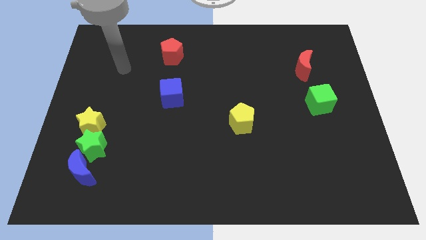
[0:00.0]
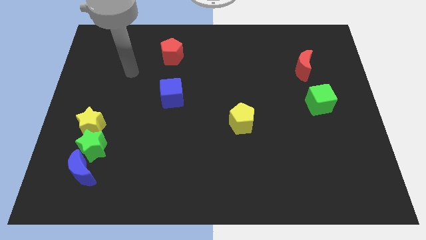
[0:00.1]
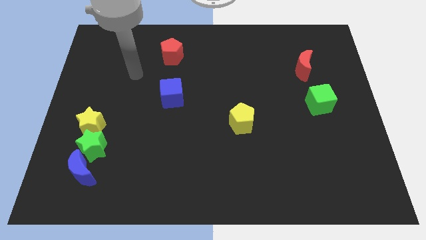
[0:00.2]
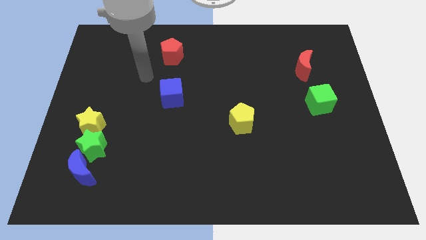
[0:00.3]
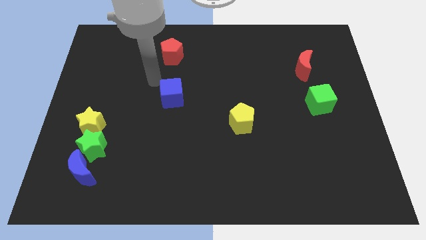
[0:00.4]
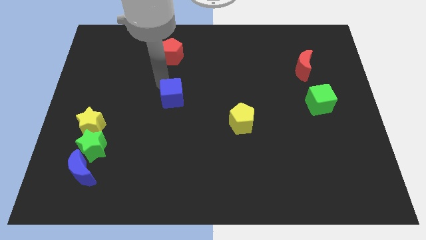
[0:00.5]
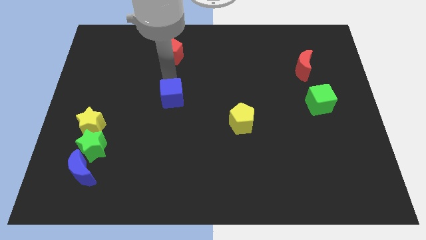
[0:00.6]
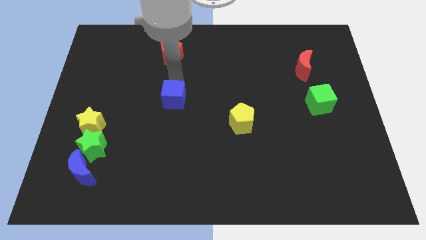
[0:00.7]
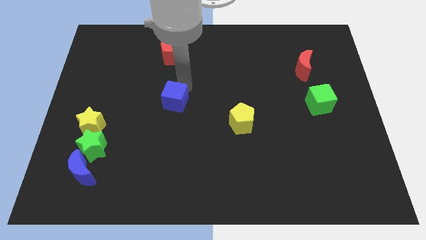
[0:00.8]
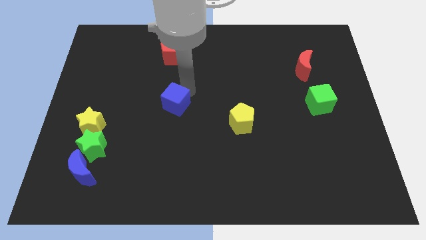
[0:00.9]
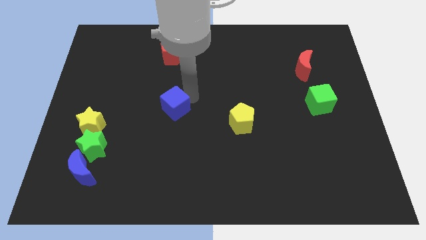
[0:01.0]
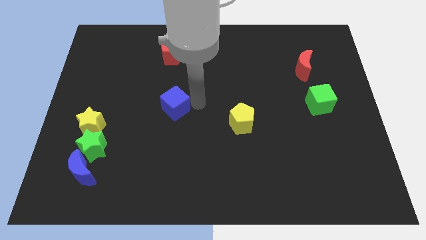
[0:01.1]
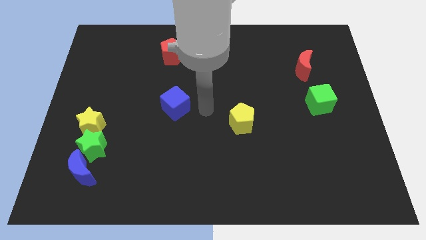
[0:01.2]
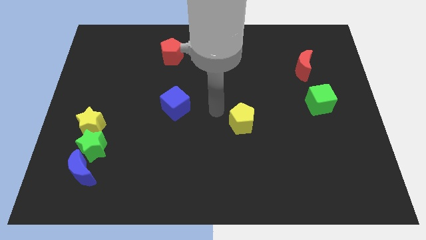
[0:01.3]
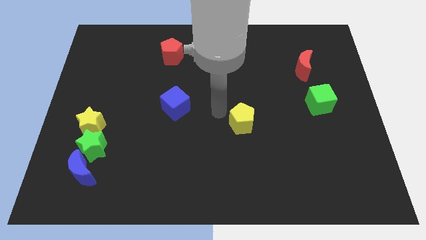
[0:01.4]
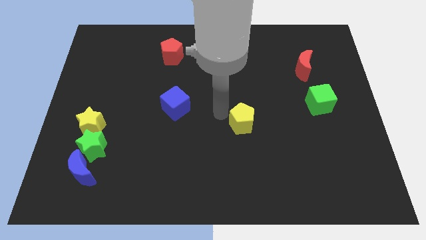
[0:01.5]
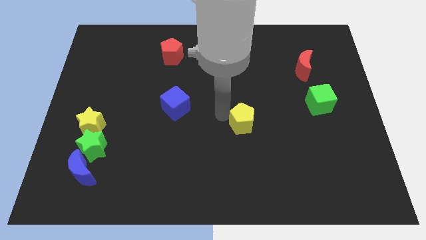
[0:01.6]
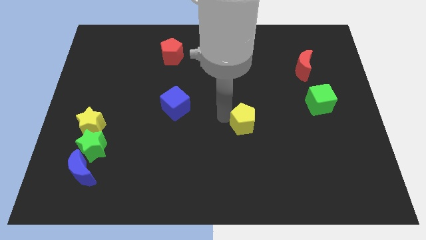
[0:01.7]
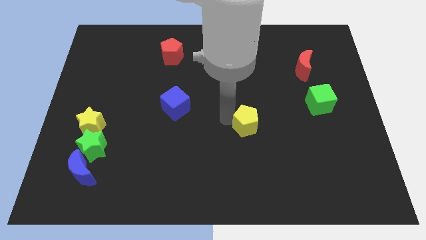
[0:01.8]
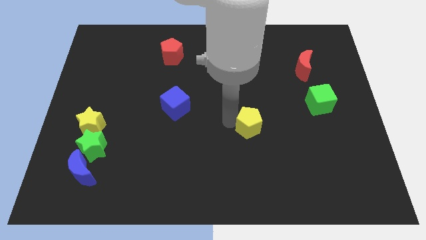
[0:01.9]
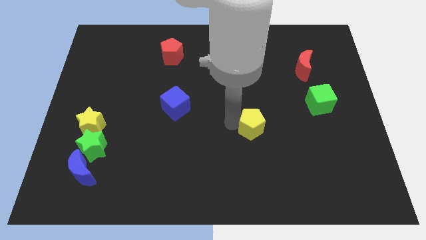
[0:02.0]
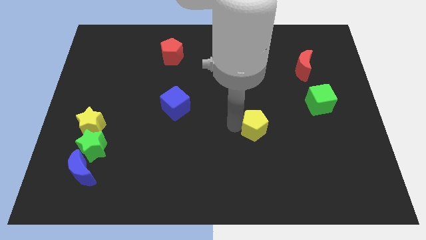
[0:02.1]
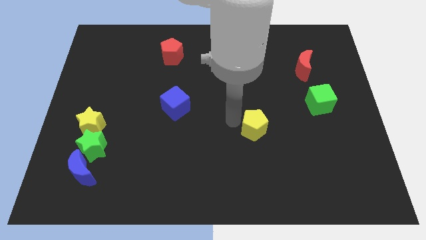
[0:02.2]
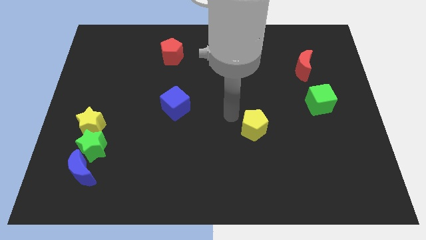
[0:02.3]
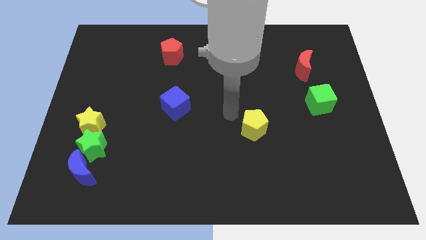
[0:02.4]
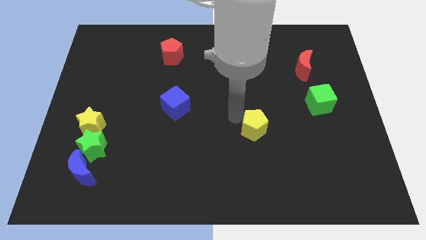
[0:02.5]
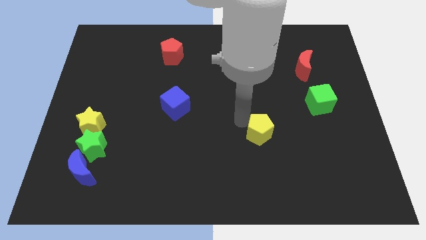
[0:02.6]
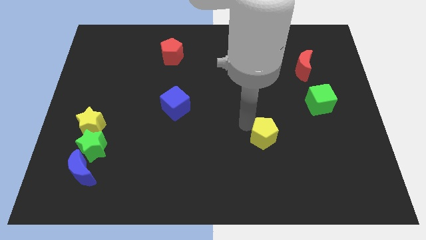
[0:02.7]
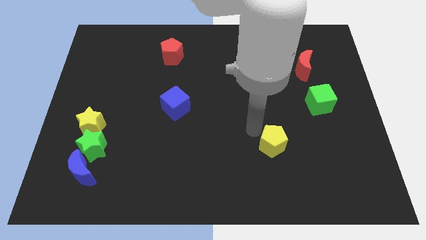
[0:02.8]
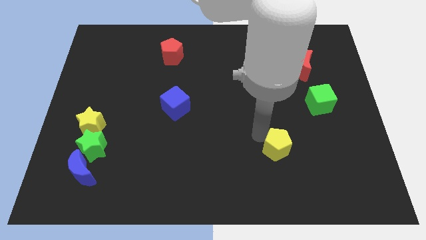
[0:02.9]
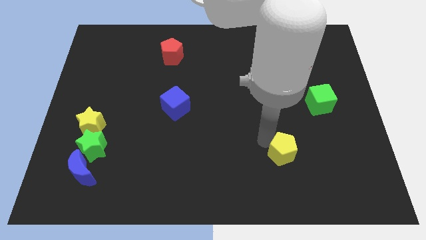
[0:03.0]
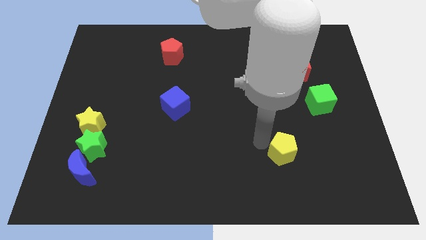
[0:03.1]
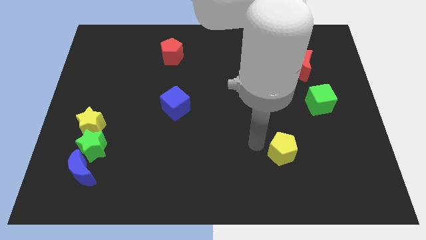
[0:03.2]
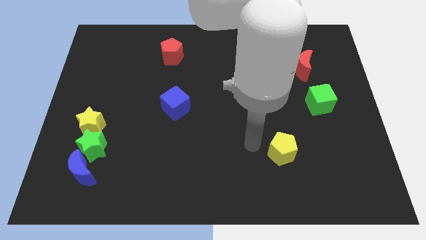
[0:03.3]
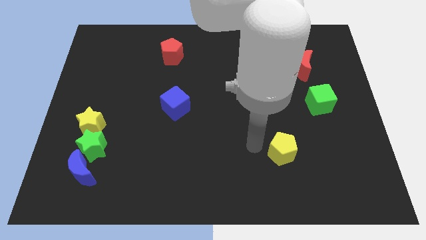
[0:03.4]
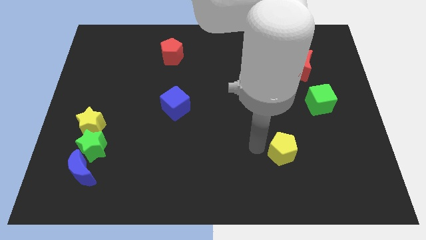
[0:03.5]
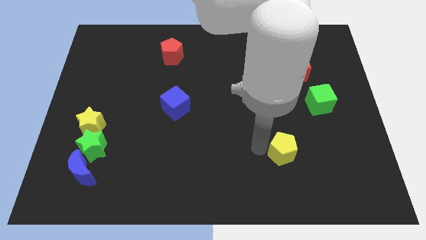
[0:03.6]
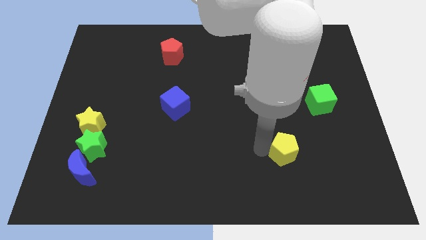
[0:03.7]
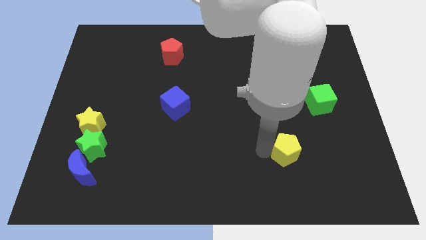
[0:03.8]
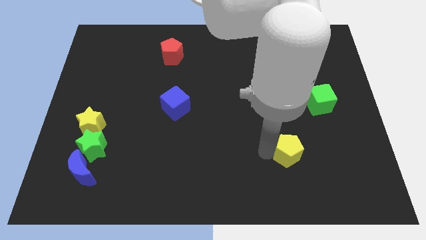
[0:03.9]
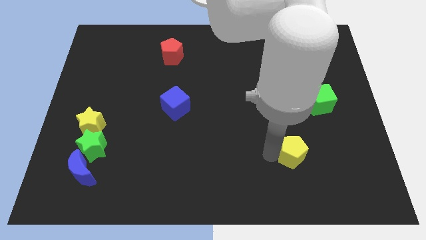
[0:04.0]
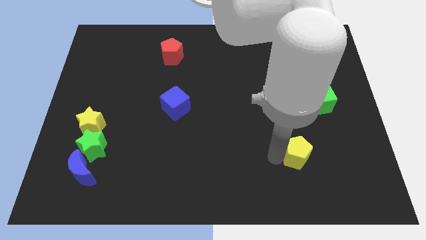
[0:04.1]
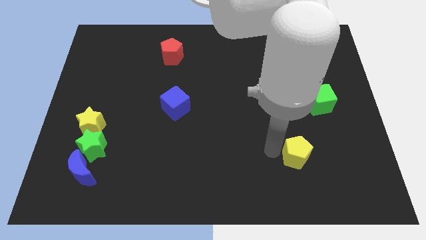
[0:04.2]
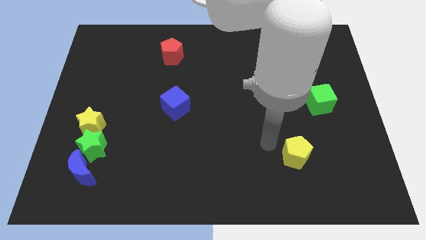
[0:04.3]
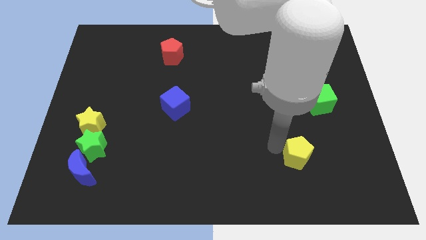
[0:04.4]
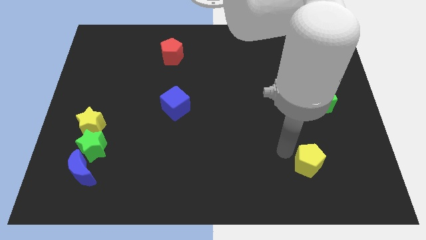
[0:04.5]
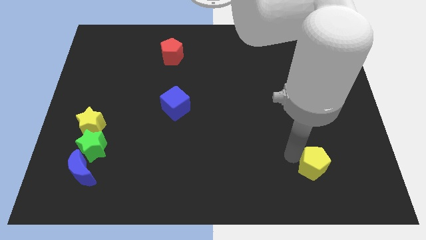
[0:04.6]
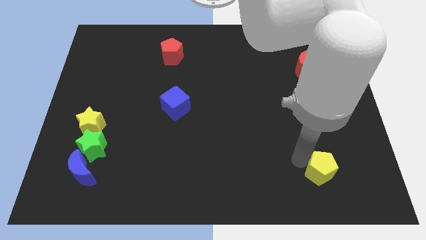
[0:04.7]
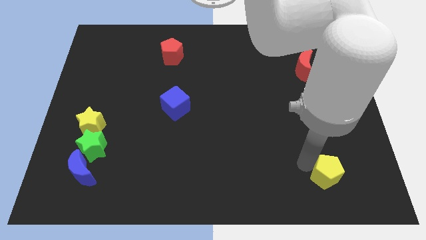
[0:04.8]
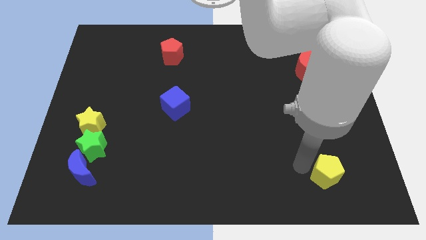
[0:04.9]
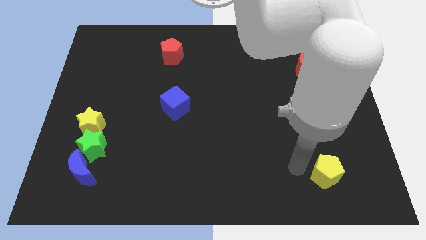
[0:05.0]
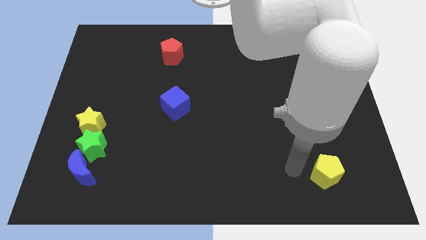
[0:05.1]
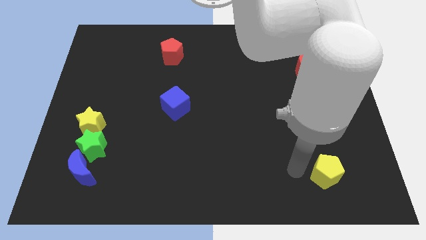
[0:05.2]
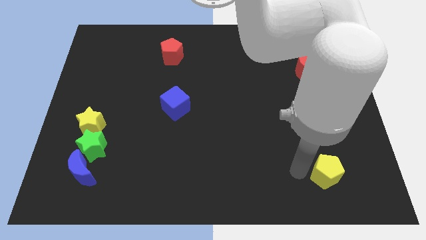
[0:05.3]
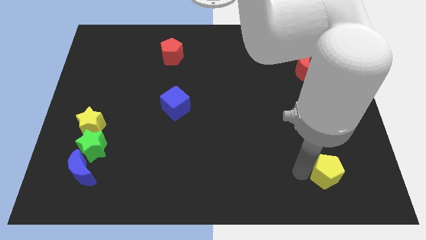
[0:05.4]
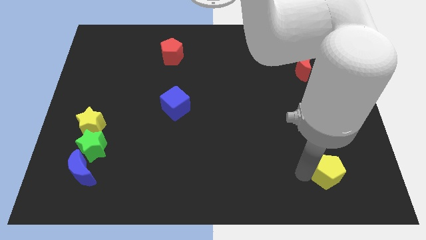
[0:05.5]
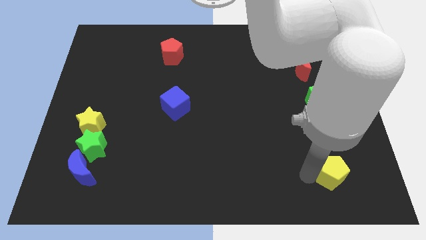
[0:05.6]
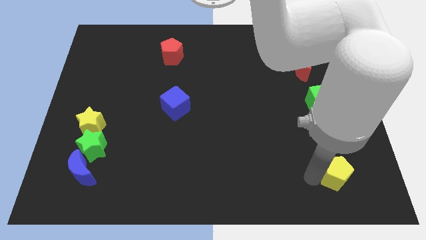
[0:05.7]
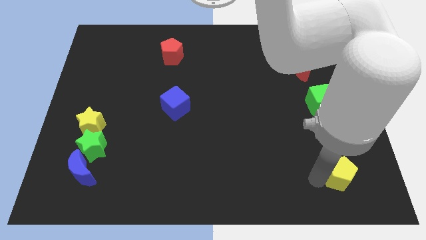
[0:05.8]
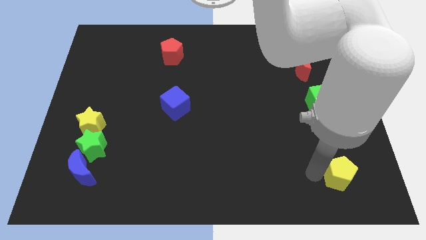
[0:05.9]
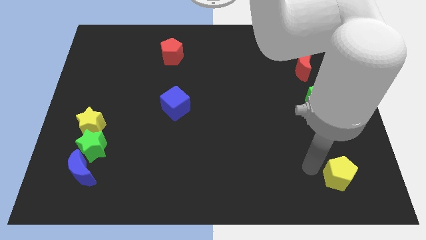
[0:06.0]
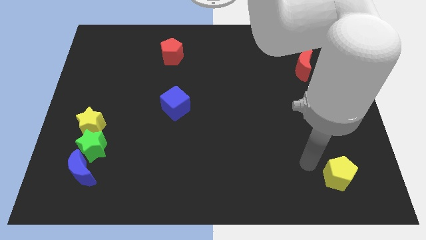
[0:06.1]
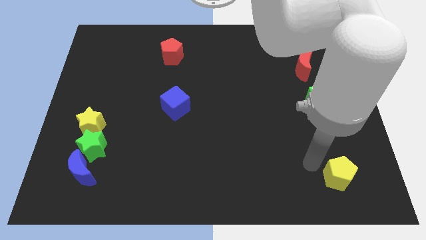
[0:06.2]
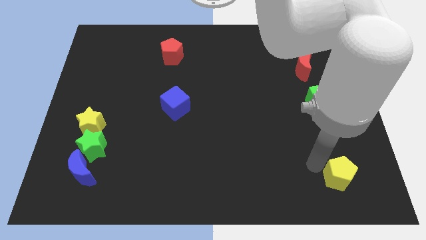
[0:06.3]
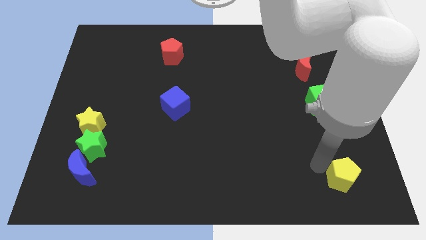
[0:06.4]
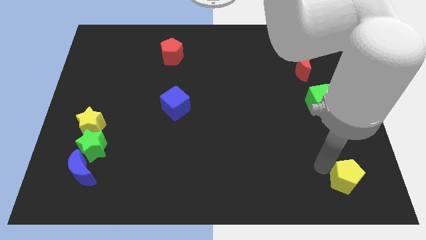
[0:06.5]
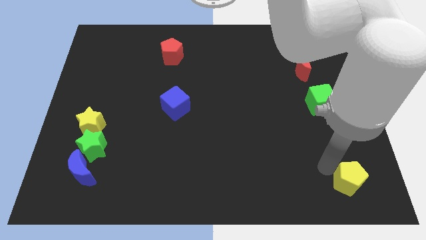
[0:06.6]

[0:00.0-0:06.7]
put the yellow pentagon to the bottom right of the board

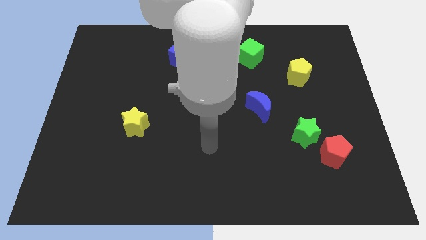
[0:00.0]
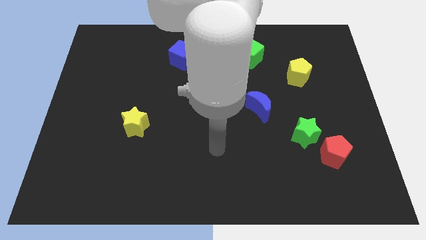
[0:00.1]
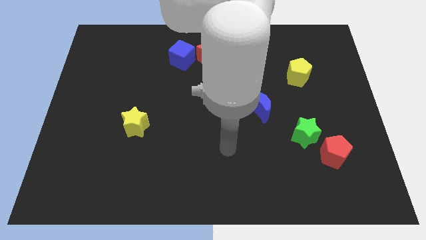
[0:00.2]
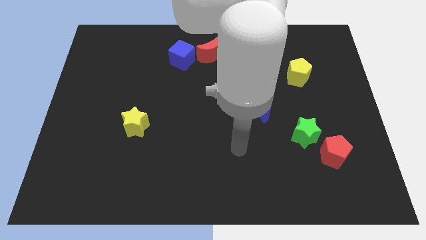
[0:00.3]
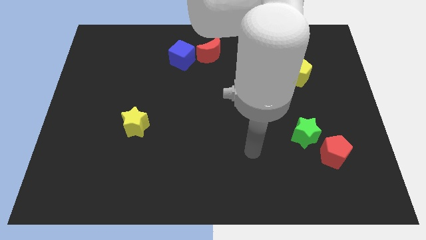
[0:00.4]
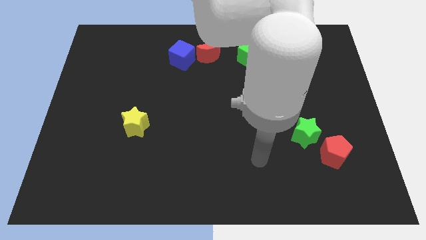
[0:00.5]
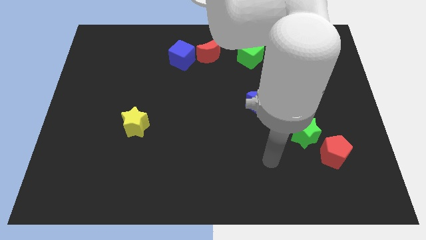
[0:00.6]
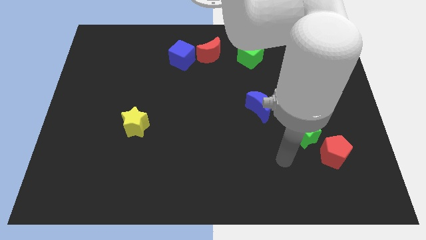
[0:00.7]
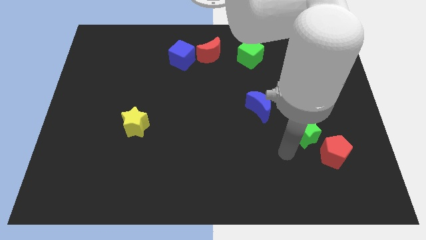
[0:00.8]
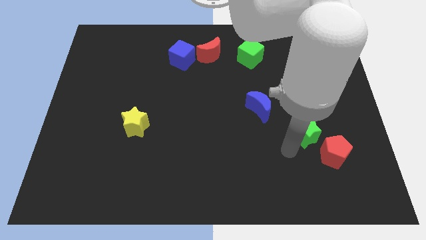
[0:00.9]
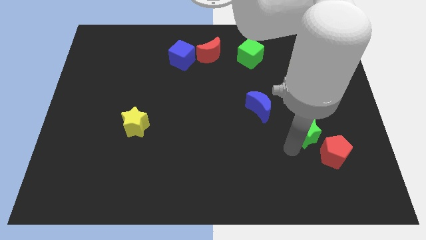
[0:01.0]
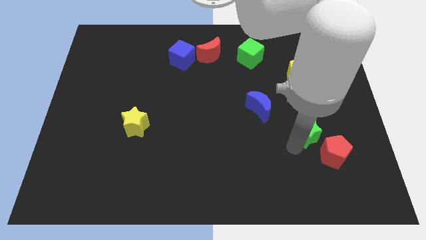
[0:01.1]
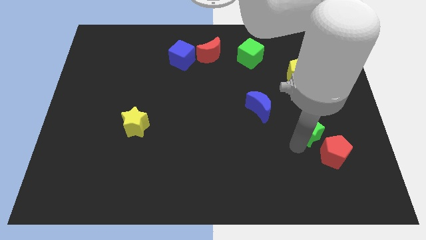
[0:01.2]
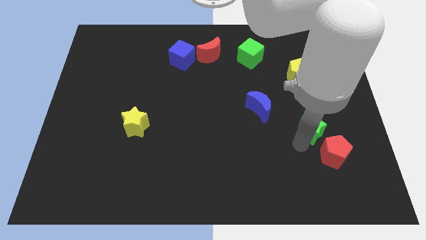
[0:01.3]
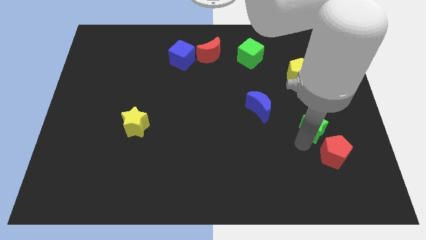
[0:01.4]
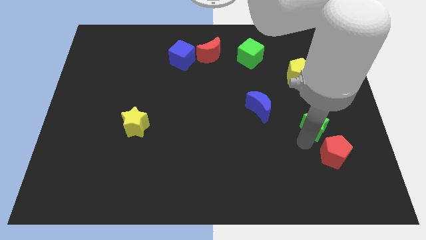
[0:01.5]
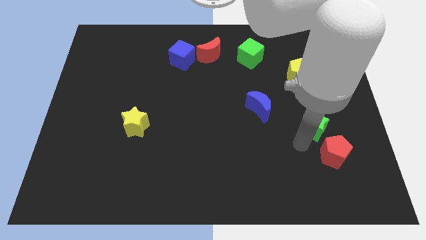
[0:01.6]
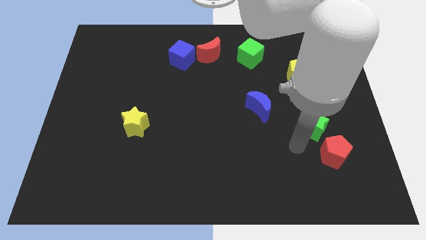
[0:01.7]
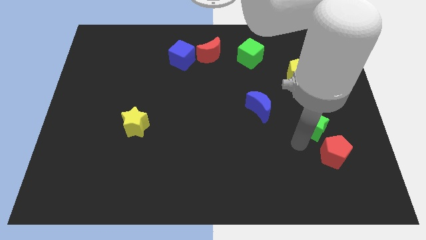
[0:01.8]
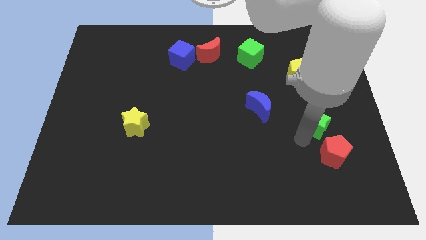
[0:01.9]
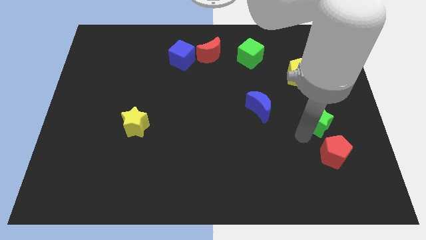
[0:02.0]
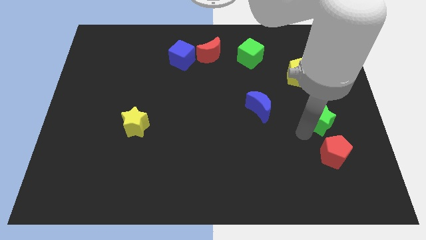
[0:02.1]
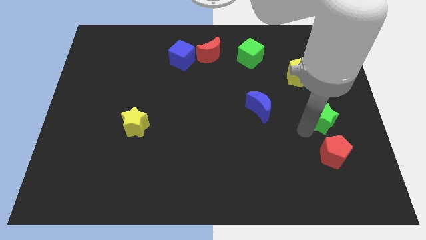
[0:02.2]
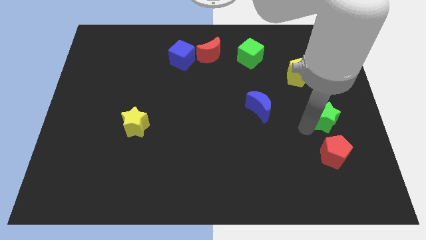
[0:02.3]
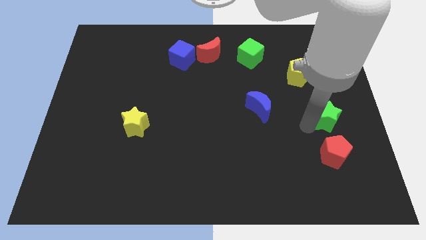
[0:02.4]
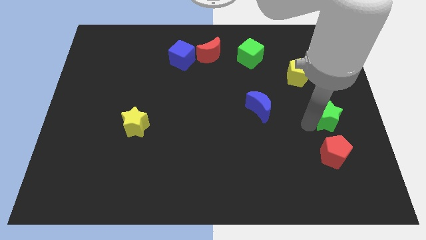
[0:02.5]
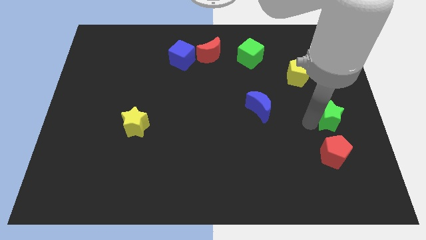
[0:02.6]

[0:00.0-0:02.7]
slide the green star to the center right
